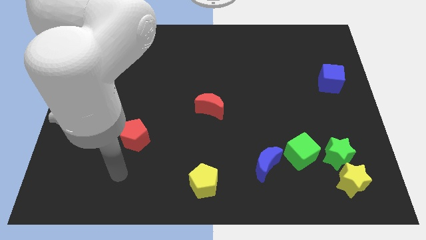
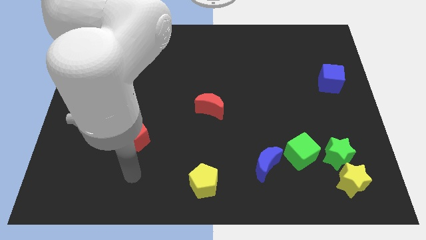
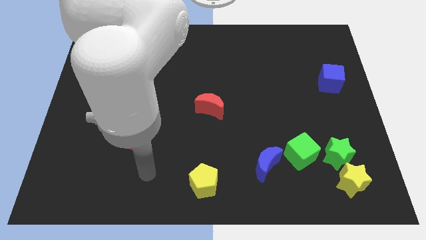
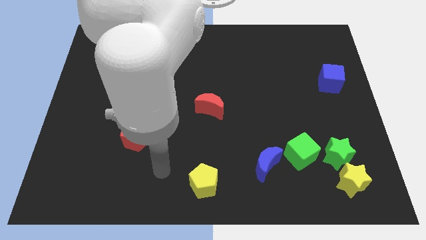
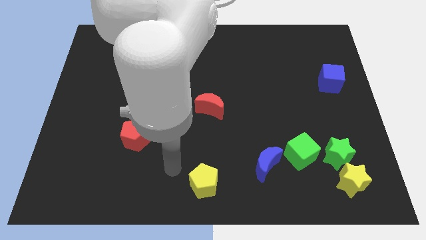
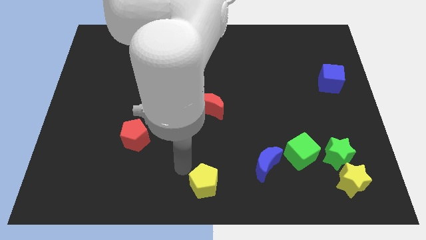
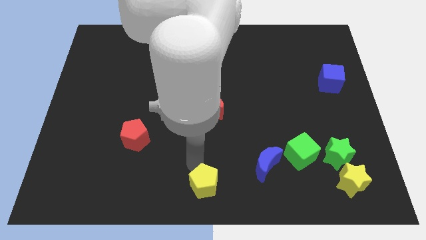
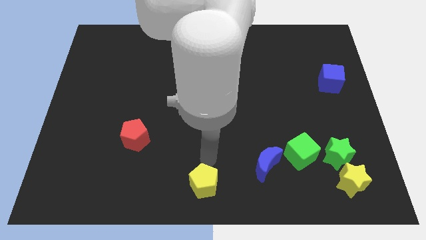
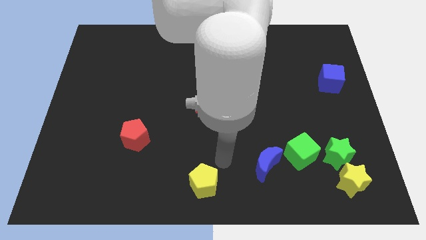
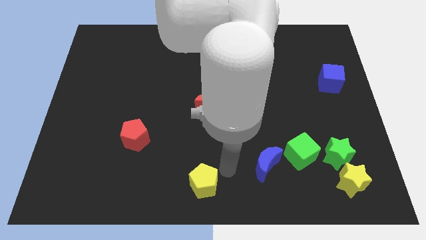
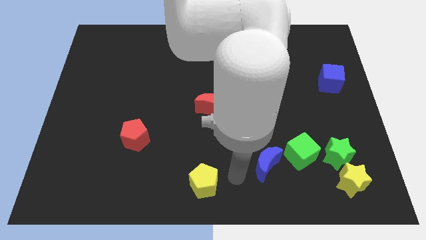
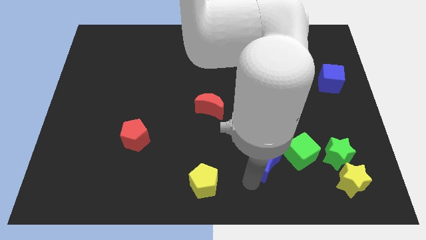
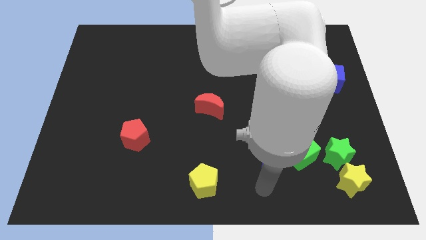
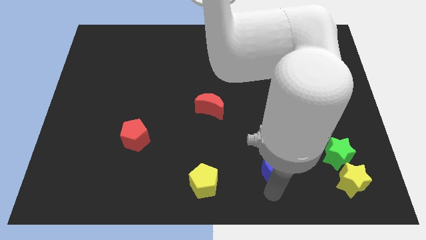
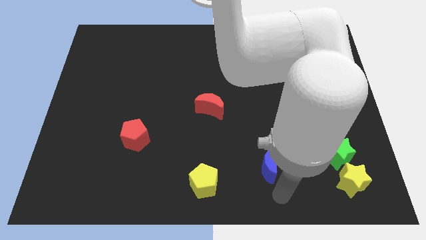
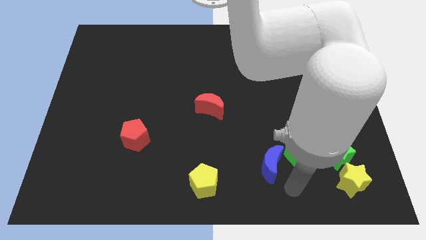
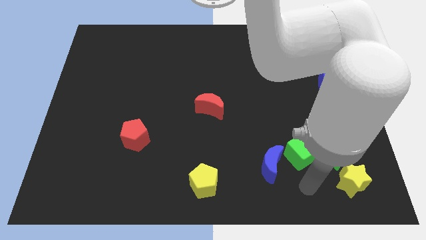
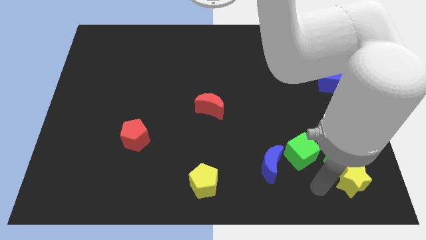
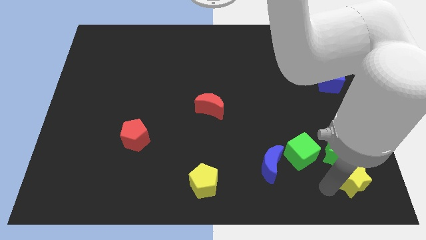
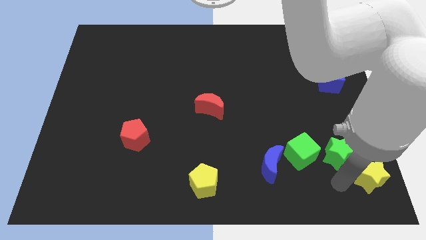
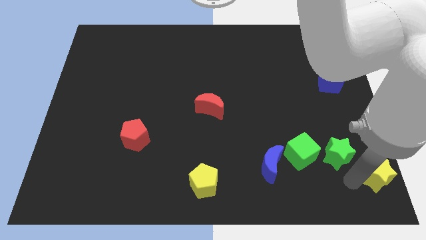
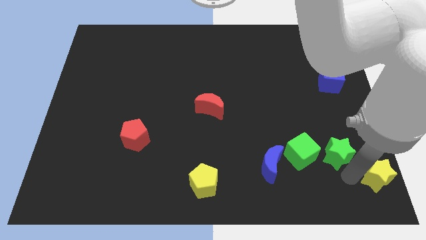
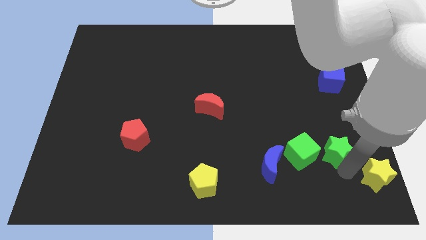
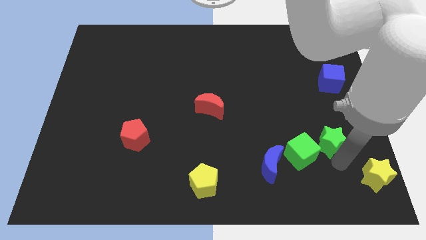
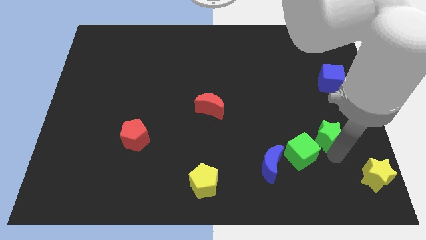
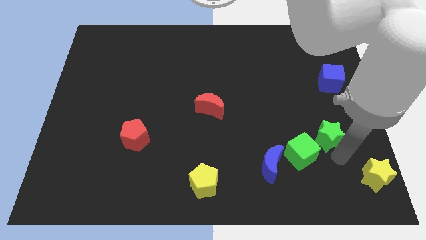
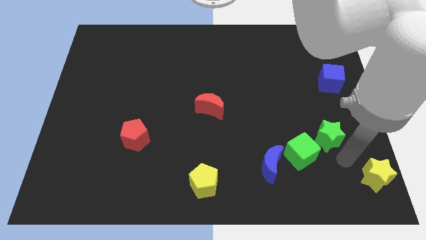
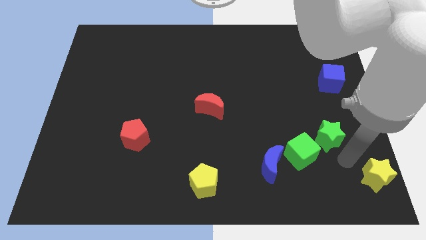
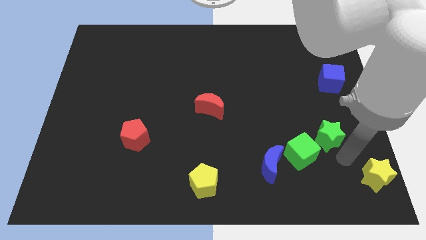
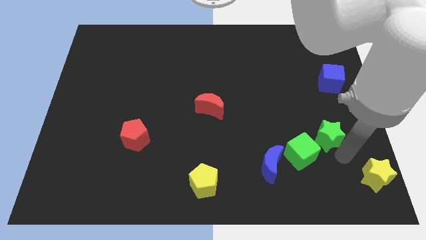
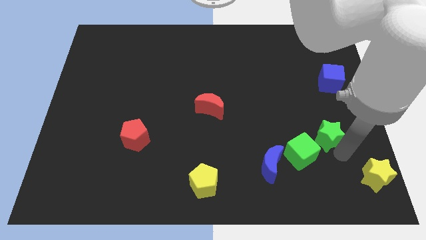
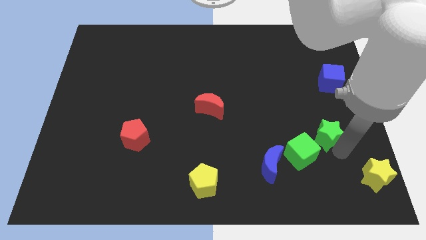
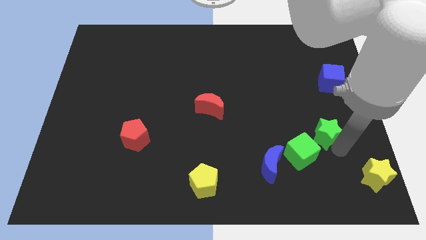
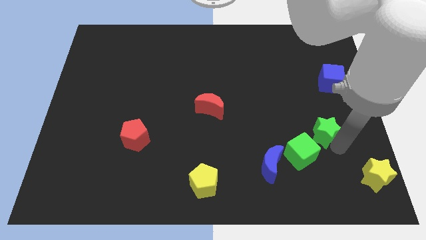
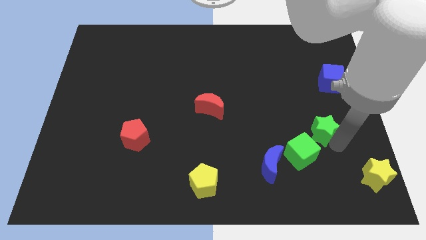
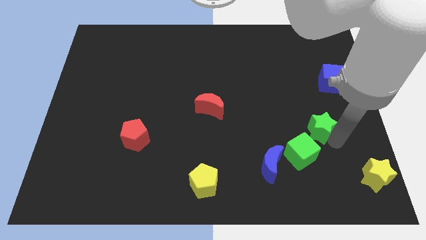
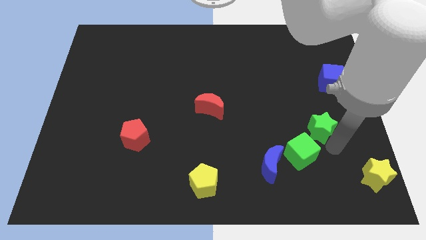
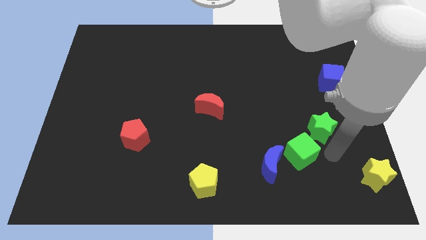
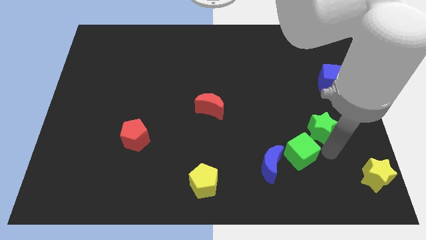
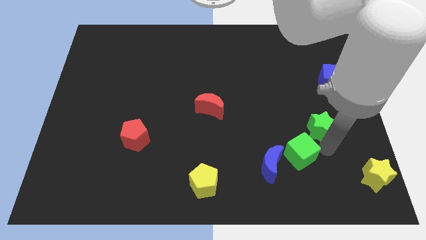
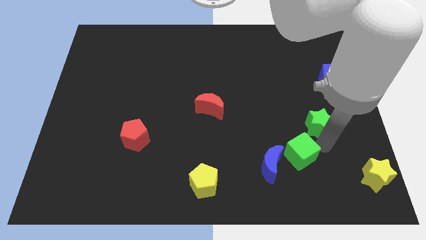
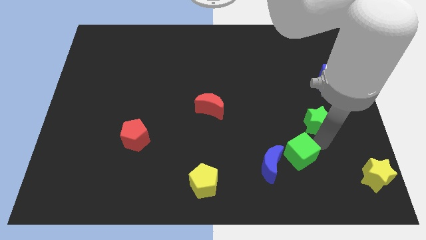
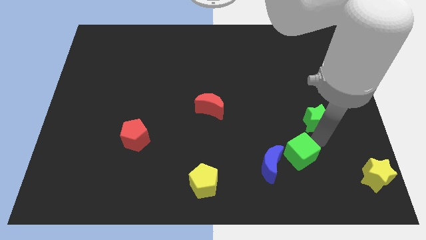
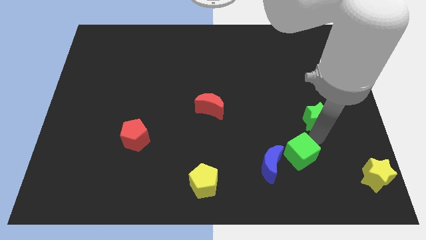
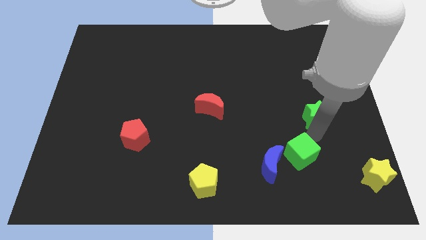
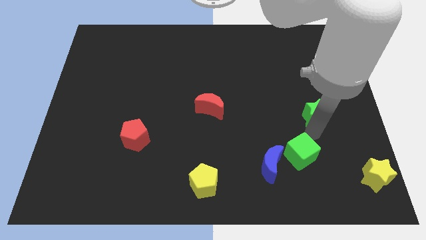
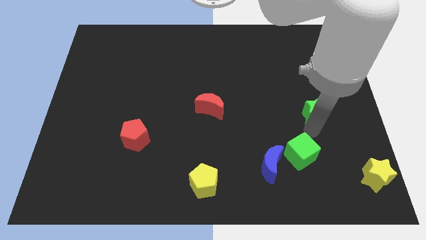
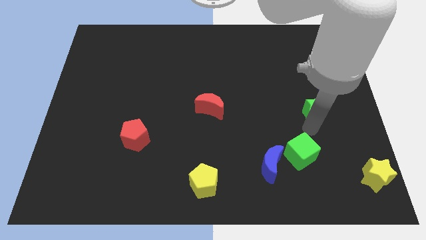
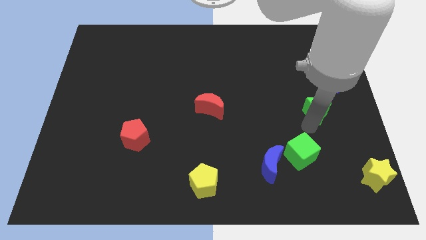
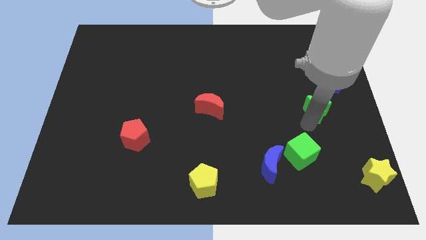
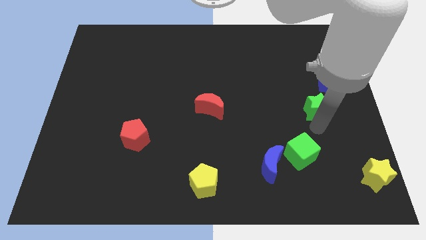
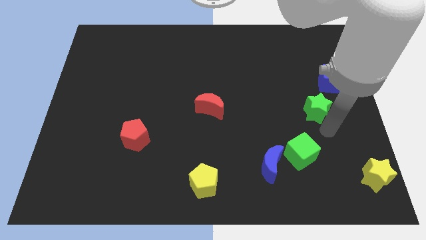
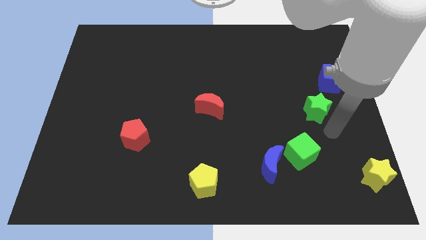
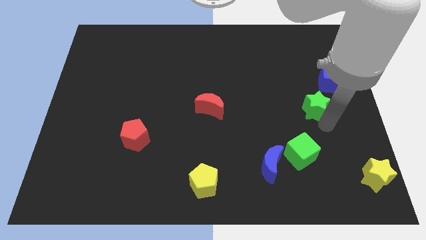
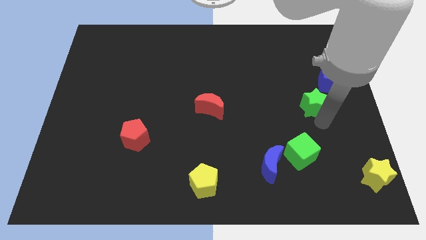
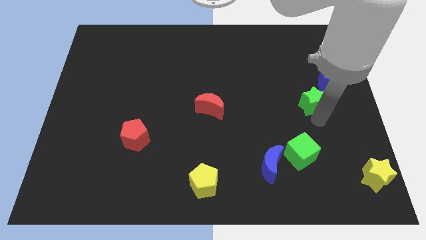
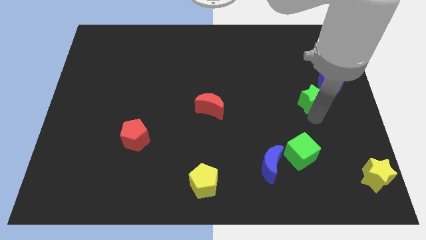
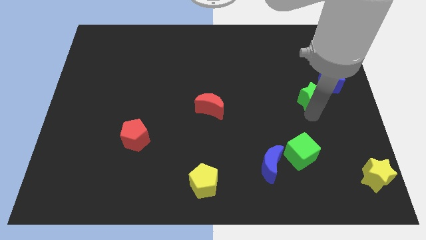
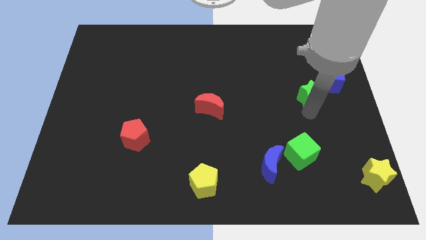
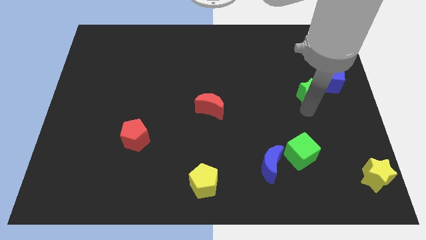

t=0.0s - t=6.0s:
push the green star just left of the blue cube
